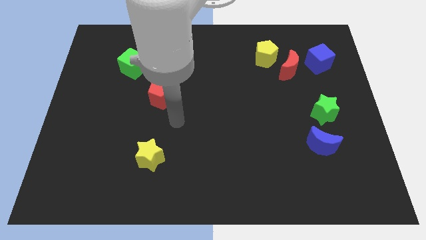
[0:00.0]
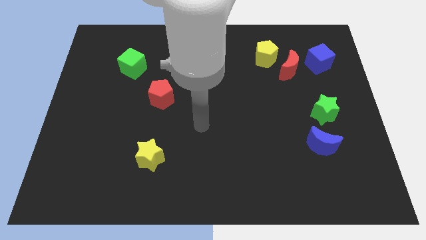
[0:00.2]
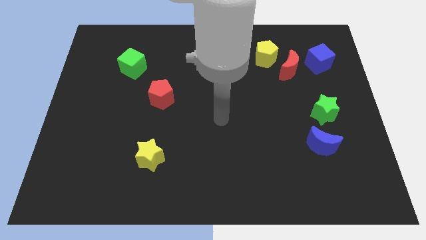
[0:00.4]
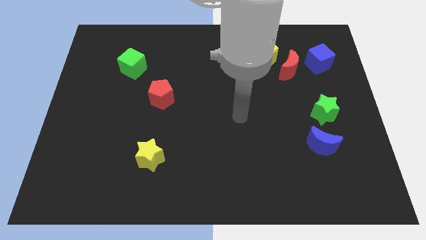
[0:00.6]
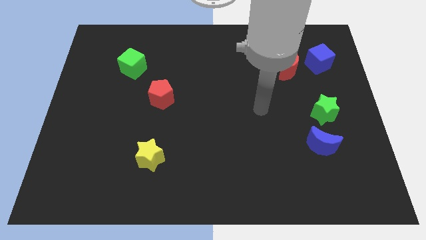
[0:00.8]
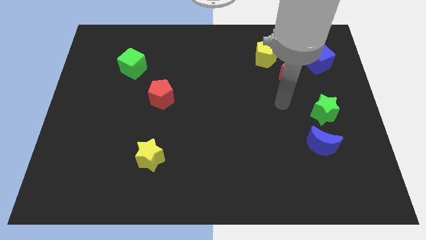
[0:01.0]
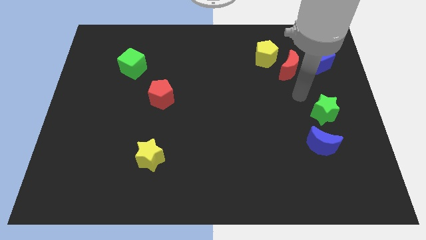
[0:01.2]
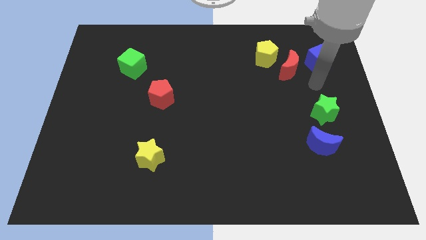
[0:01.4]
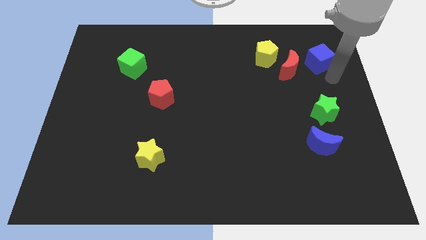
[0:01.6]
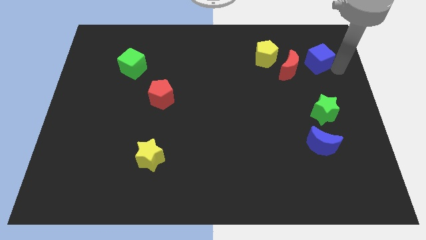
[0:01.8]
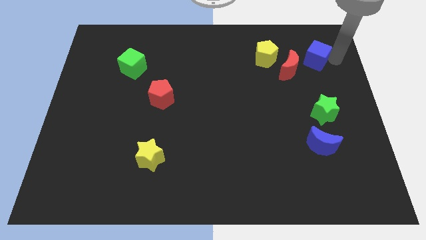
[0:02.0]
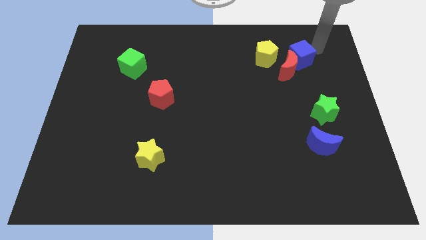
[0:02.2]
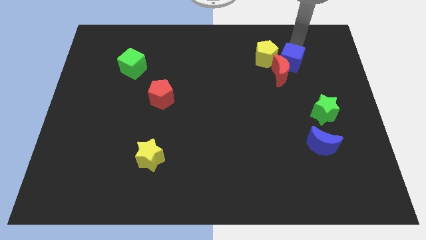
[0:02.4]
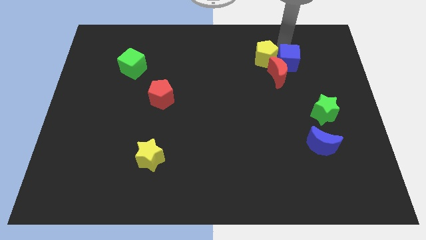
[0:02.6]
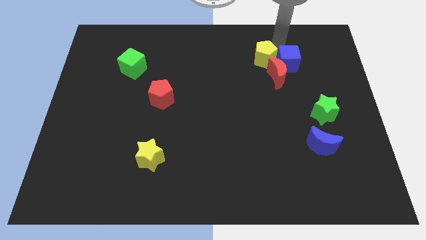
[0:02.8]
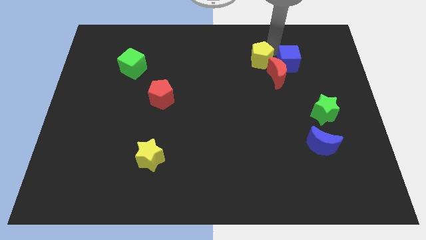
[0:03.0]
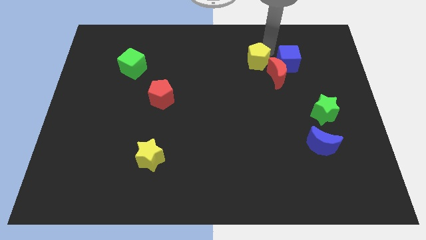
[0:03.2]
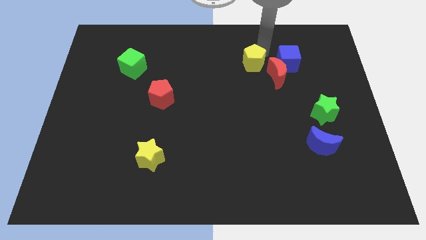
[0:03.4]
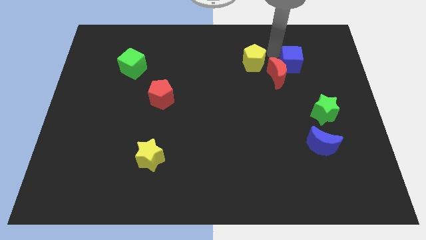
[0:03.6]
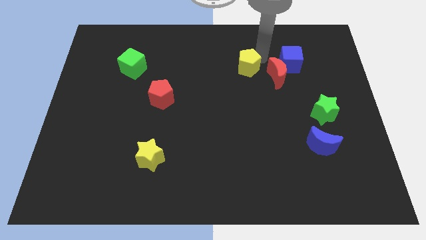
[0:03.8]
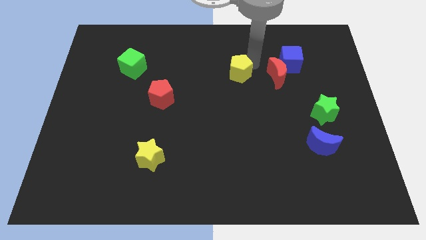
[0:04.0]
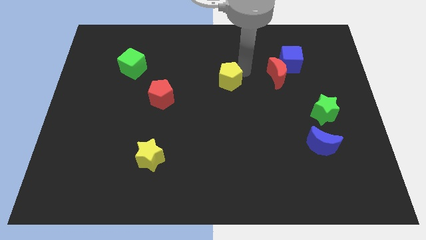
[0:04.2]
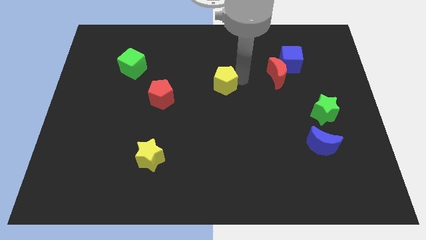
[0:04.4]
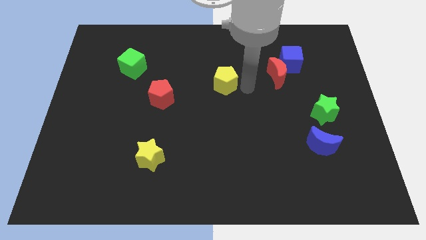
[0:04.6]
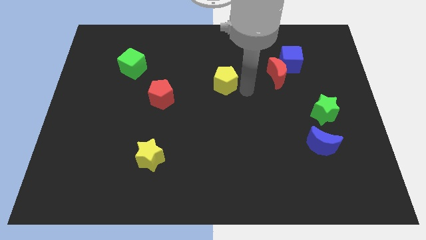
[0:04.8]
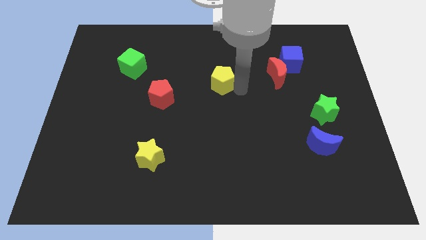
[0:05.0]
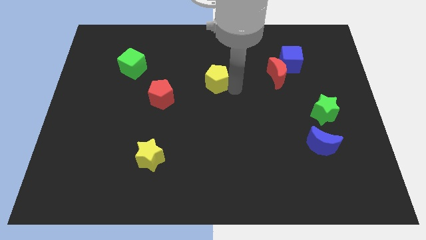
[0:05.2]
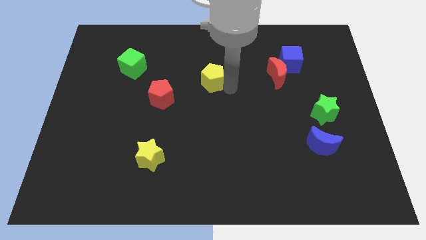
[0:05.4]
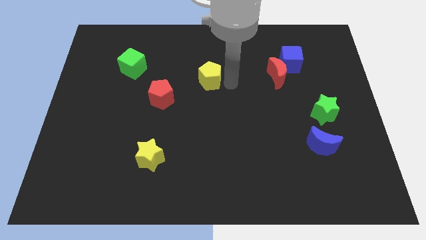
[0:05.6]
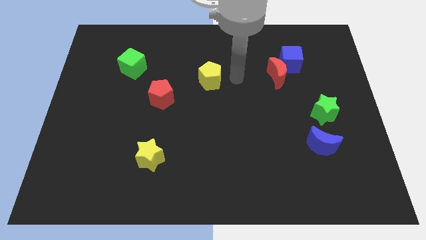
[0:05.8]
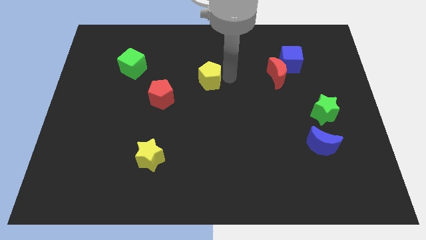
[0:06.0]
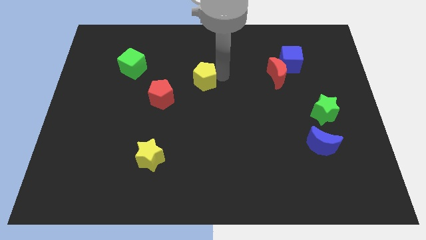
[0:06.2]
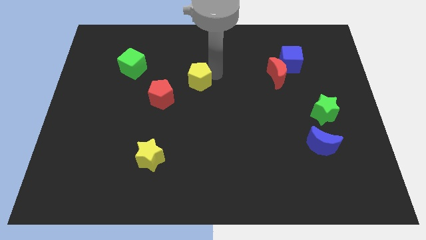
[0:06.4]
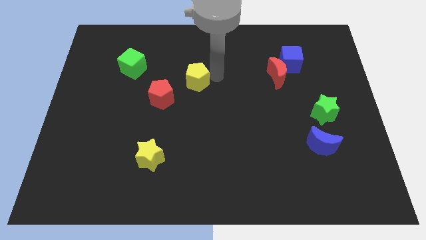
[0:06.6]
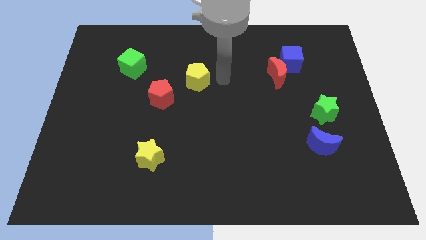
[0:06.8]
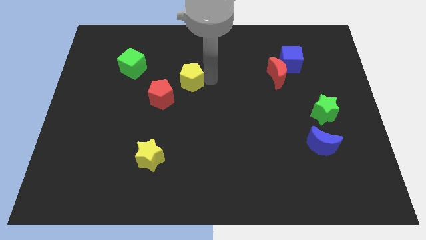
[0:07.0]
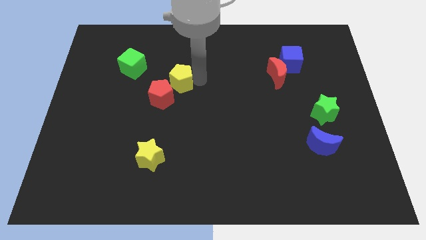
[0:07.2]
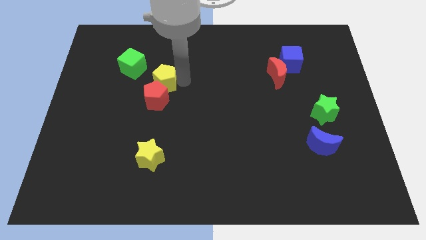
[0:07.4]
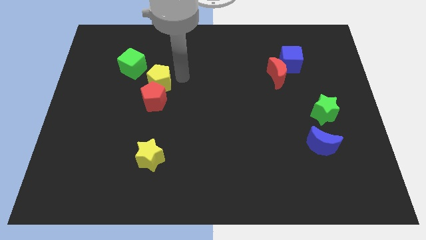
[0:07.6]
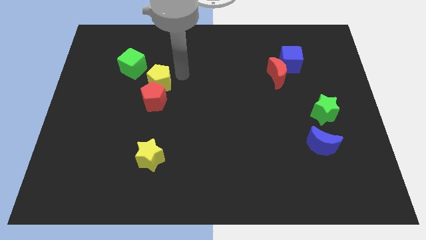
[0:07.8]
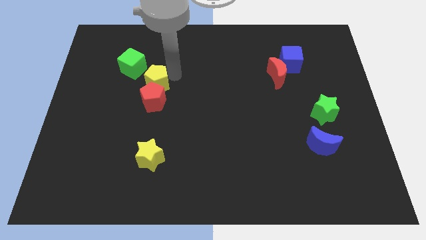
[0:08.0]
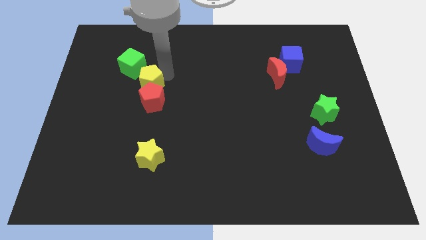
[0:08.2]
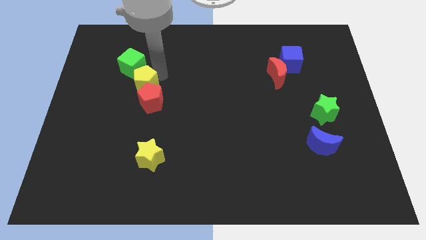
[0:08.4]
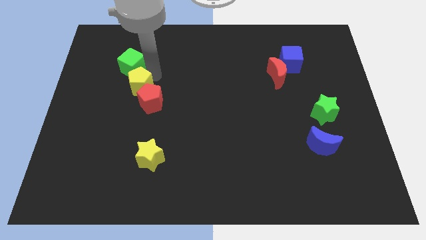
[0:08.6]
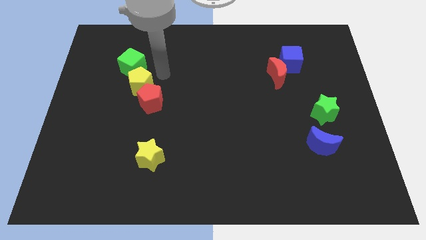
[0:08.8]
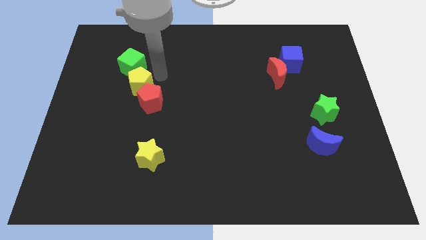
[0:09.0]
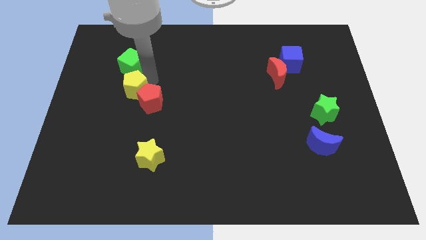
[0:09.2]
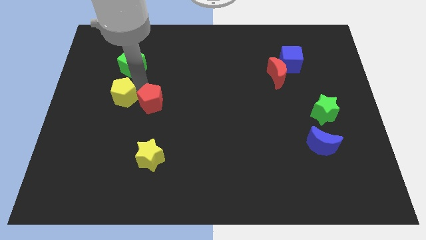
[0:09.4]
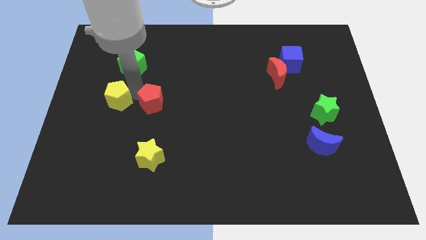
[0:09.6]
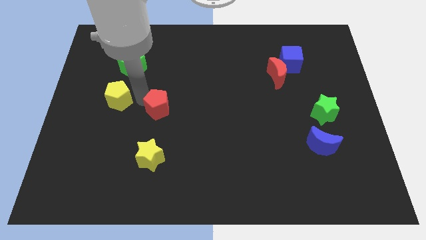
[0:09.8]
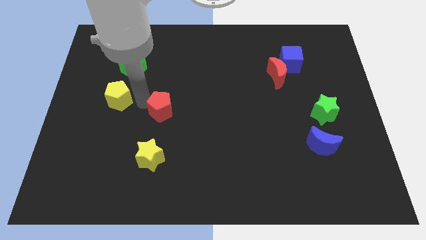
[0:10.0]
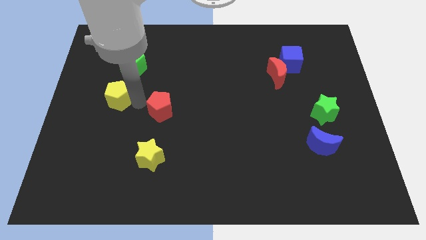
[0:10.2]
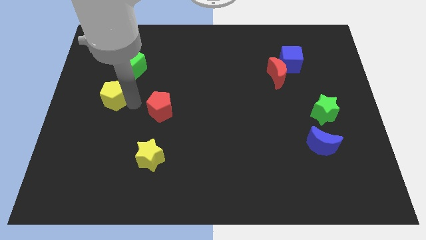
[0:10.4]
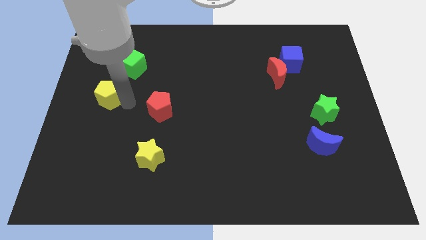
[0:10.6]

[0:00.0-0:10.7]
slide the yellow pentagon to the left side
